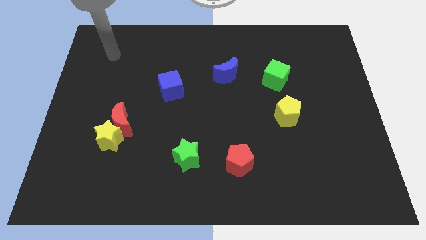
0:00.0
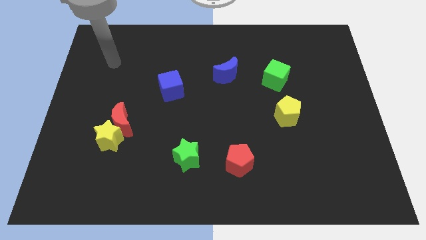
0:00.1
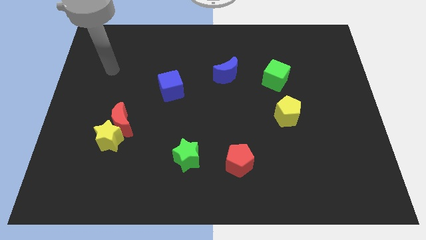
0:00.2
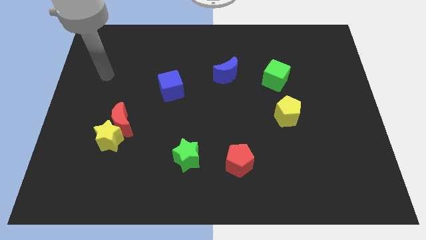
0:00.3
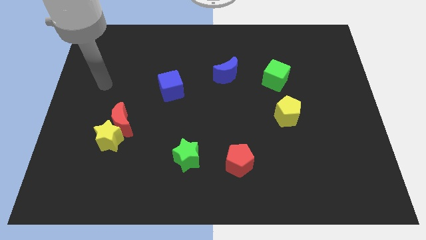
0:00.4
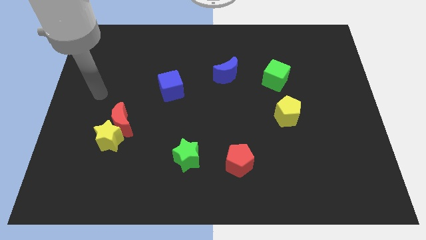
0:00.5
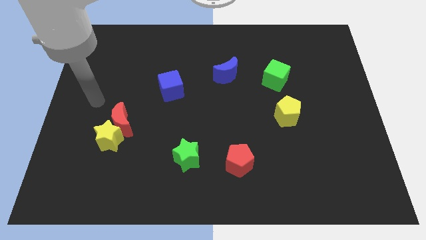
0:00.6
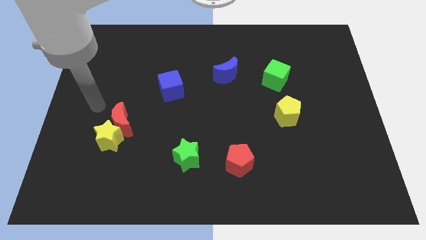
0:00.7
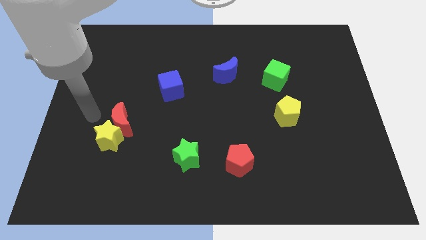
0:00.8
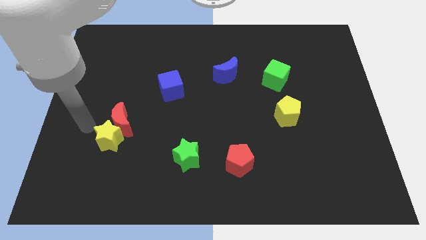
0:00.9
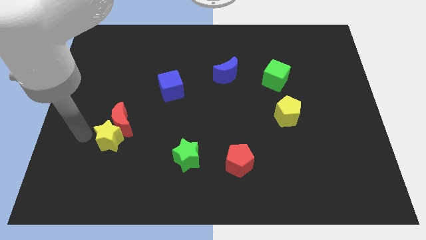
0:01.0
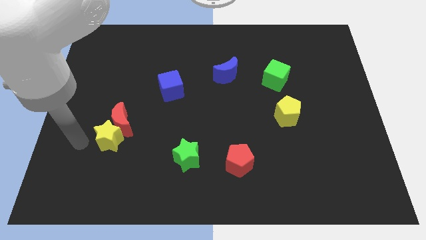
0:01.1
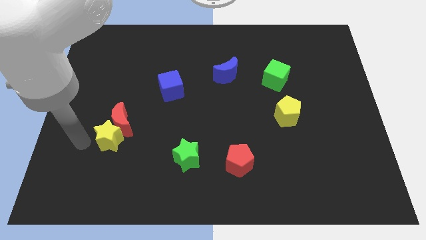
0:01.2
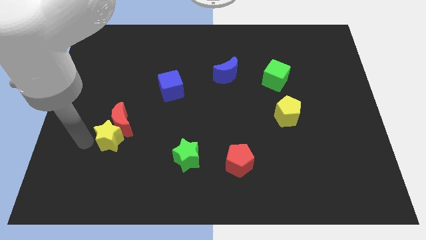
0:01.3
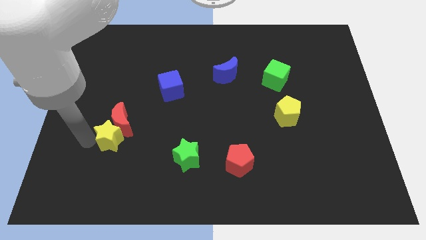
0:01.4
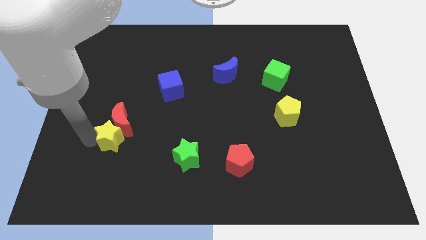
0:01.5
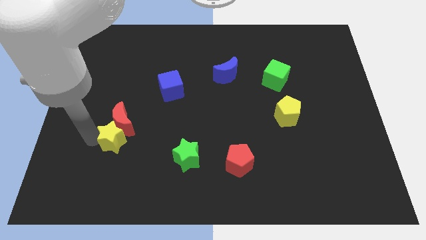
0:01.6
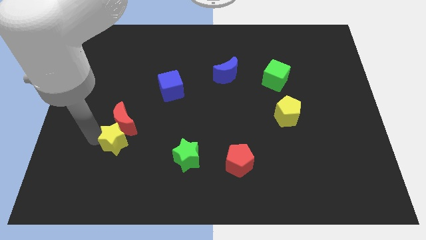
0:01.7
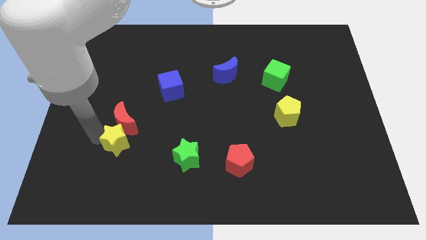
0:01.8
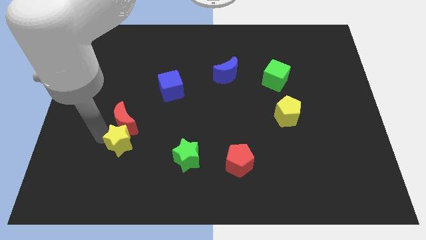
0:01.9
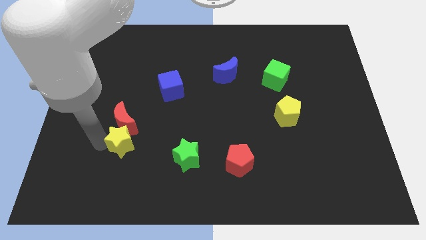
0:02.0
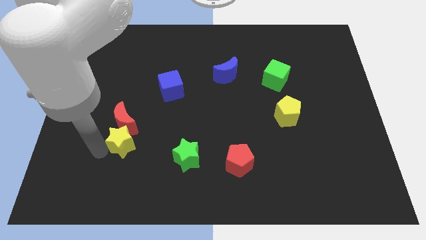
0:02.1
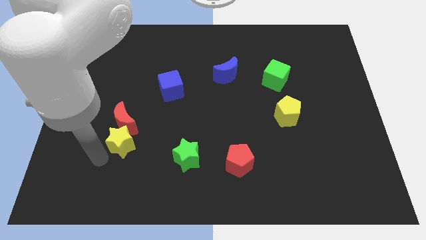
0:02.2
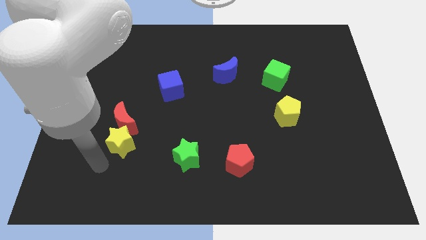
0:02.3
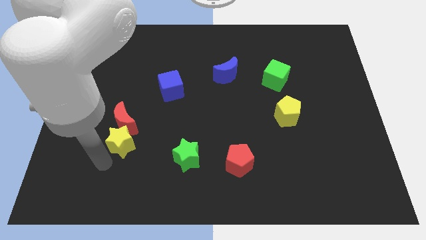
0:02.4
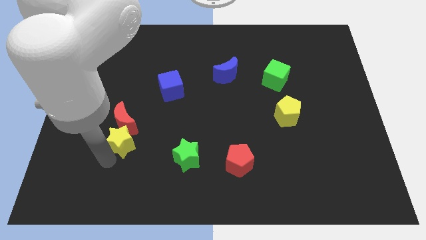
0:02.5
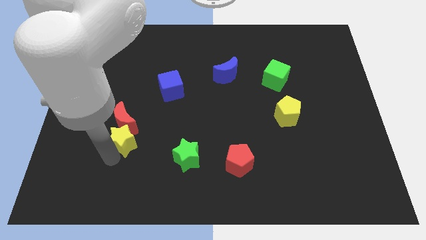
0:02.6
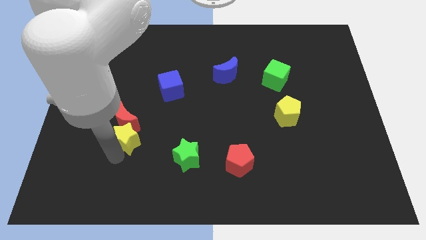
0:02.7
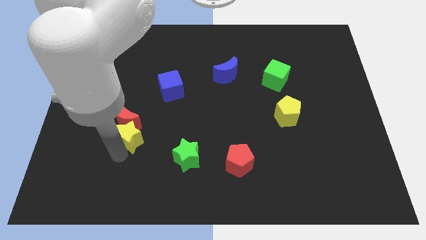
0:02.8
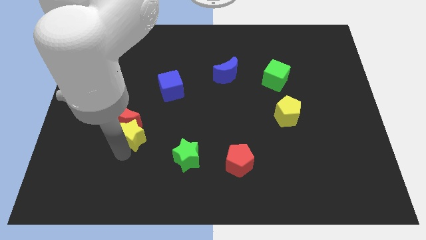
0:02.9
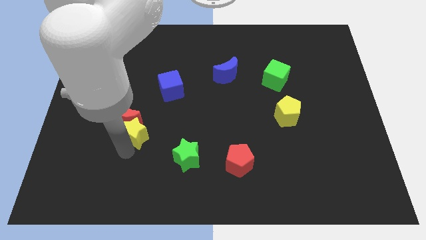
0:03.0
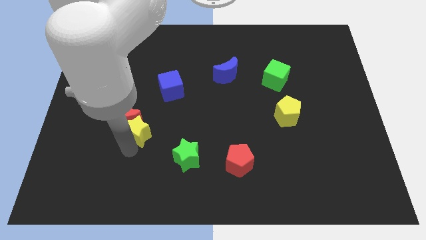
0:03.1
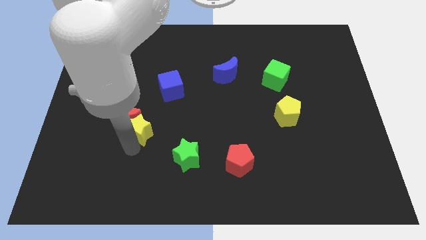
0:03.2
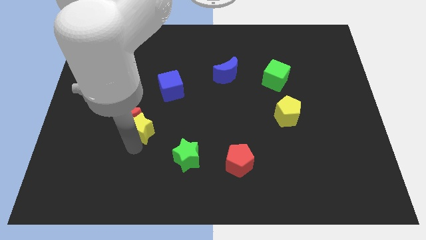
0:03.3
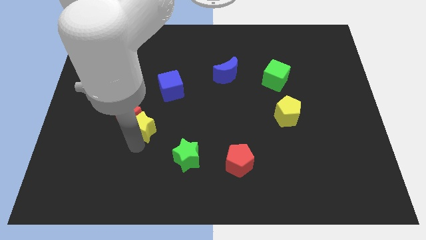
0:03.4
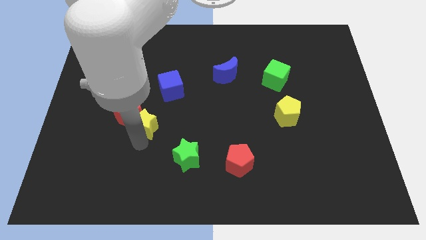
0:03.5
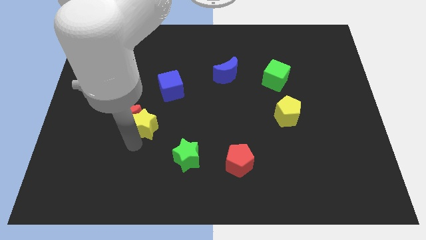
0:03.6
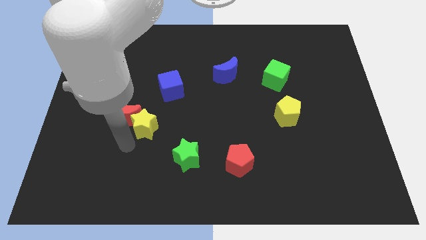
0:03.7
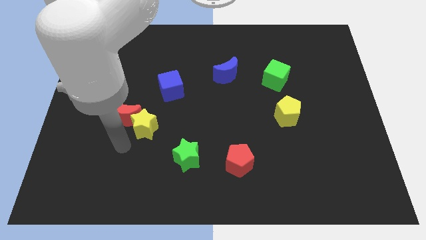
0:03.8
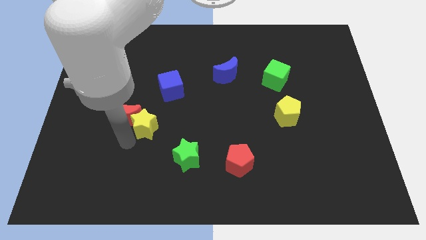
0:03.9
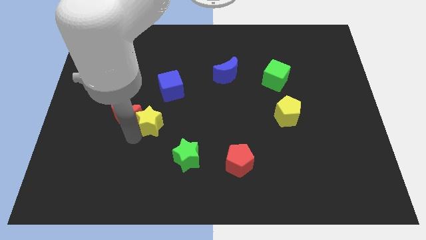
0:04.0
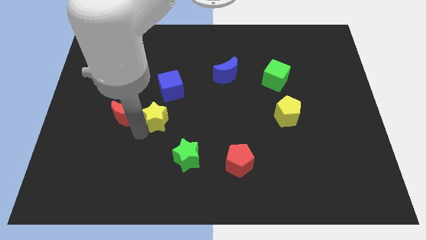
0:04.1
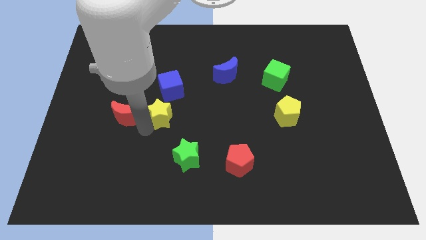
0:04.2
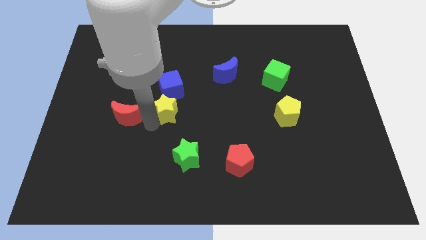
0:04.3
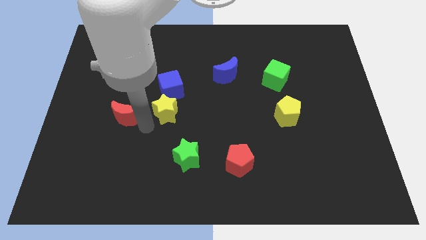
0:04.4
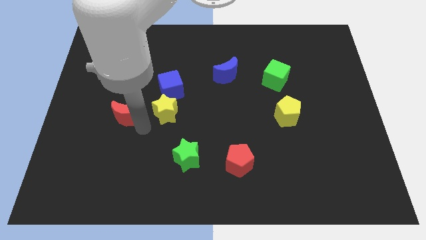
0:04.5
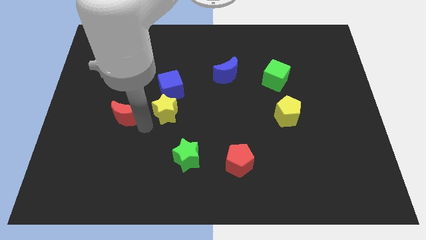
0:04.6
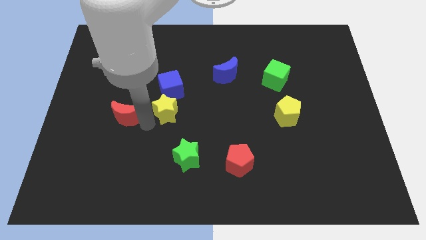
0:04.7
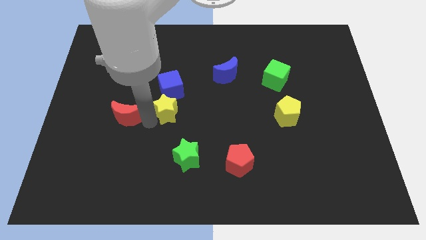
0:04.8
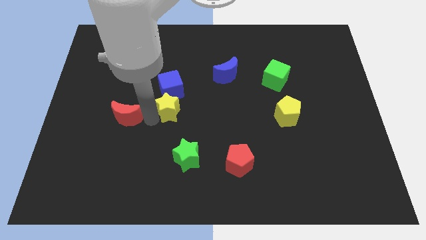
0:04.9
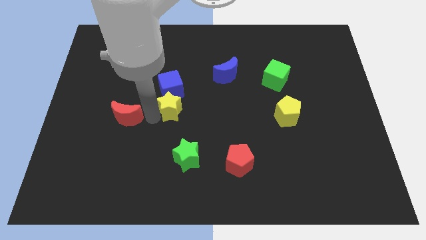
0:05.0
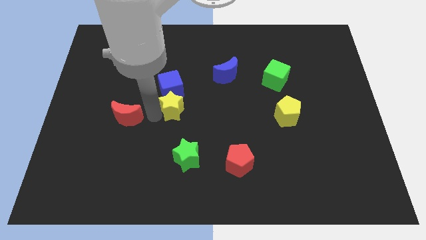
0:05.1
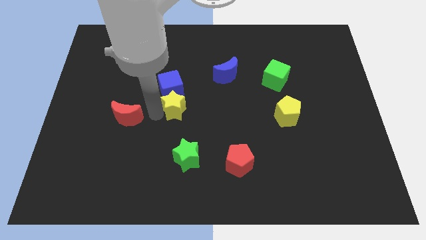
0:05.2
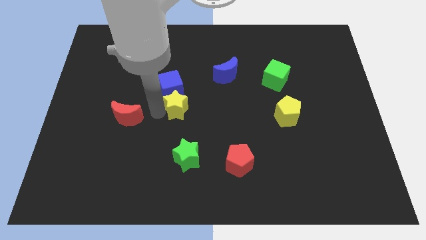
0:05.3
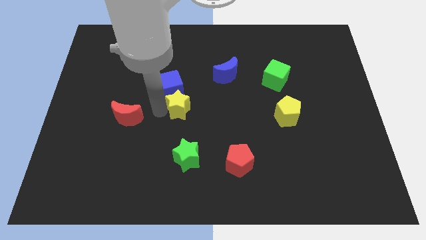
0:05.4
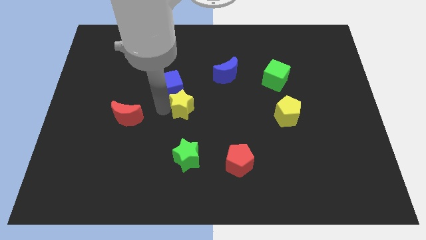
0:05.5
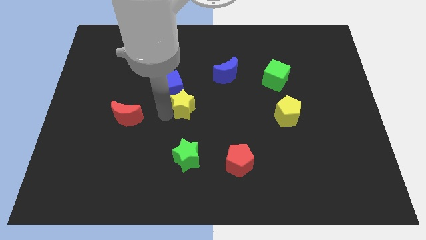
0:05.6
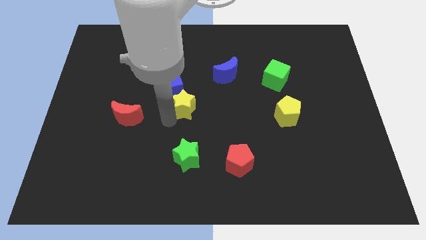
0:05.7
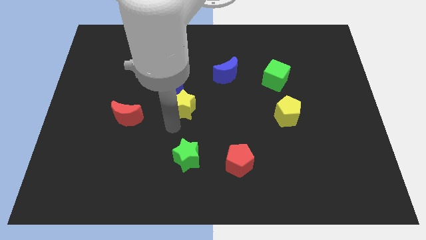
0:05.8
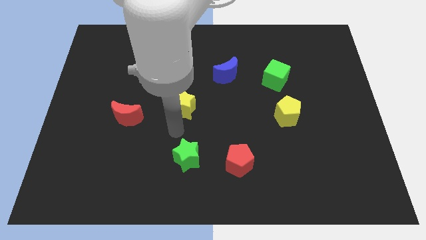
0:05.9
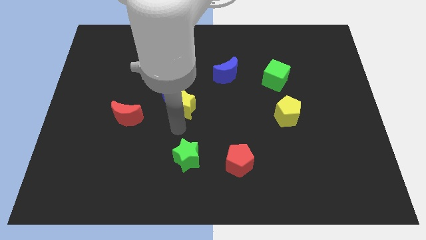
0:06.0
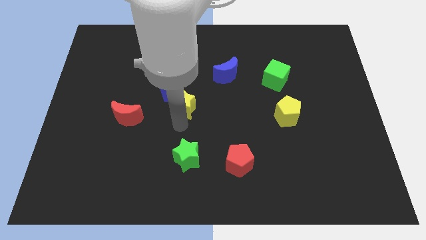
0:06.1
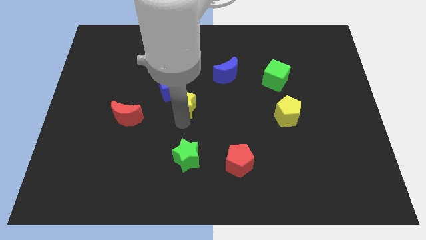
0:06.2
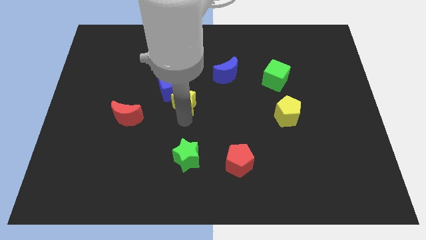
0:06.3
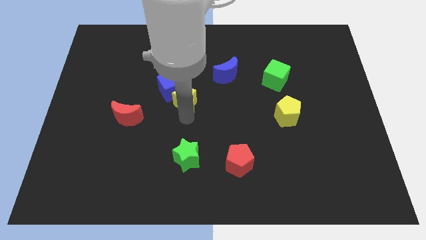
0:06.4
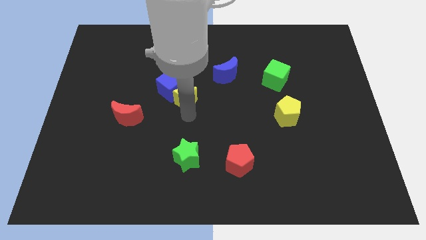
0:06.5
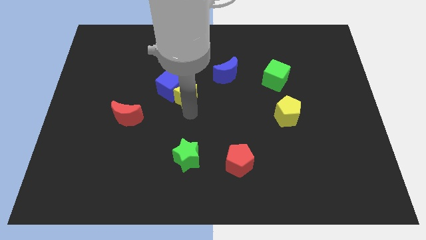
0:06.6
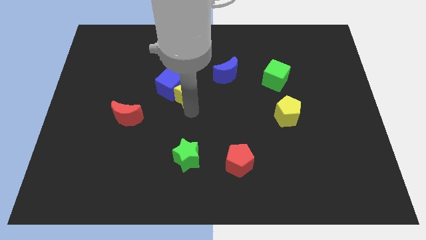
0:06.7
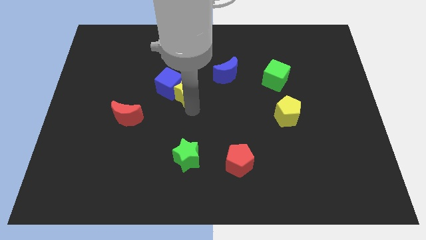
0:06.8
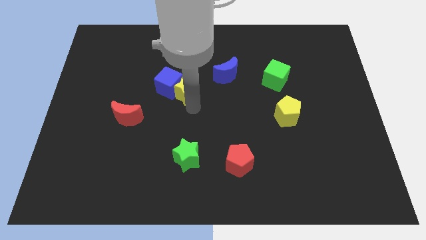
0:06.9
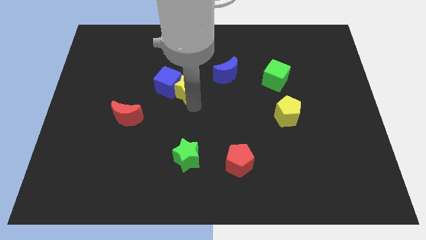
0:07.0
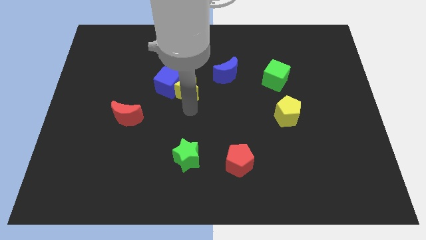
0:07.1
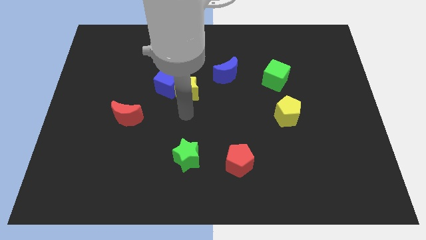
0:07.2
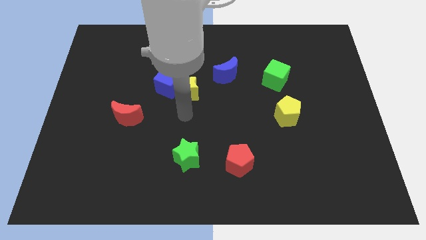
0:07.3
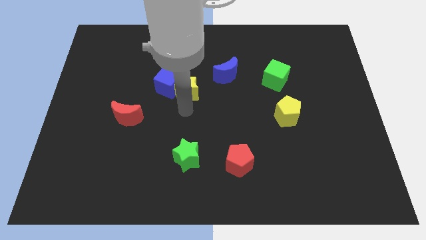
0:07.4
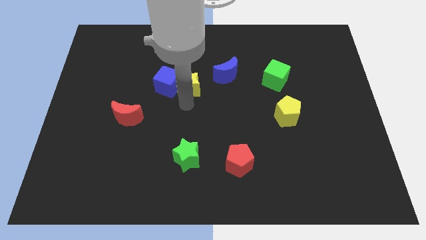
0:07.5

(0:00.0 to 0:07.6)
put the yellow star to the top right side of the blue cube
